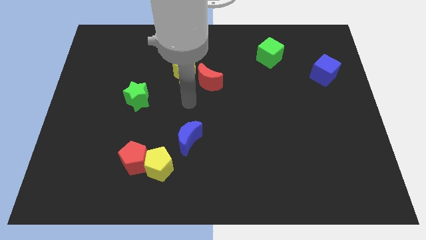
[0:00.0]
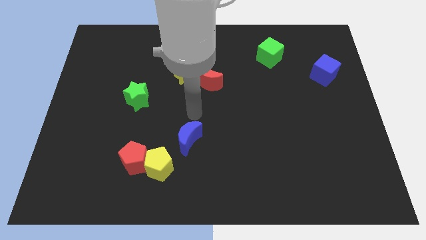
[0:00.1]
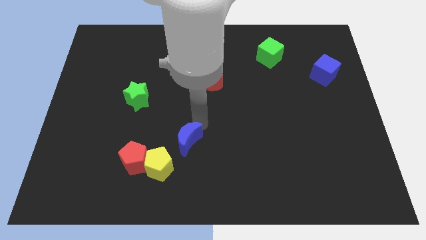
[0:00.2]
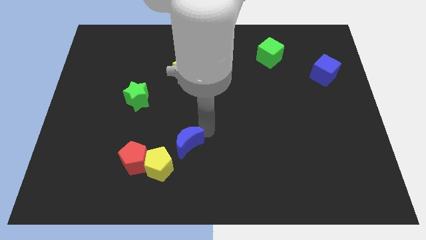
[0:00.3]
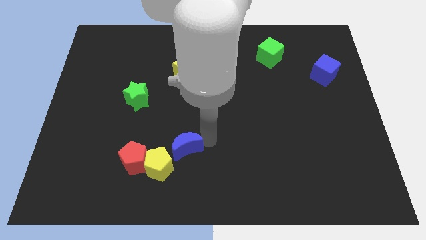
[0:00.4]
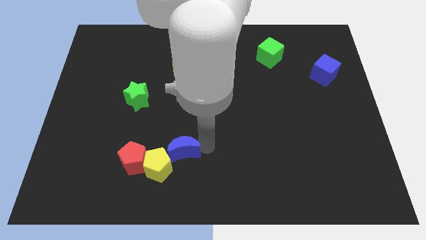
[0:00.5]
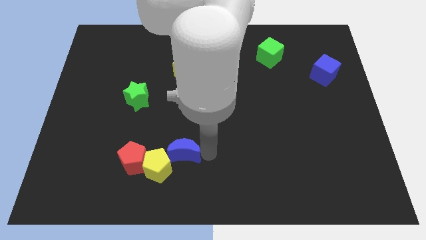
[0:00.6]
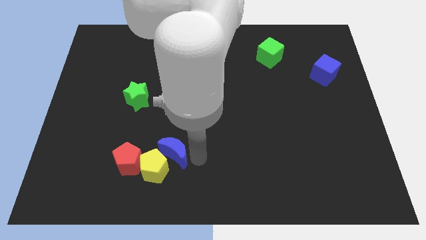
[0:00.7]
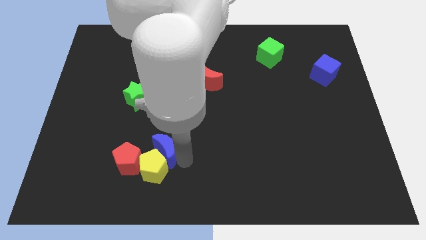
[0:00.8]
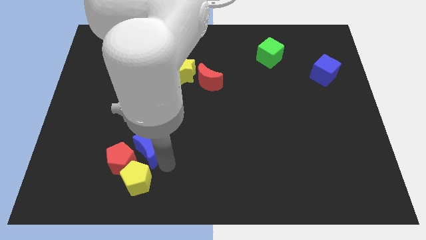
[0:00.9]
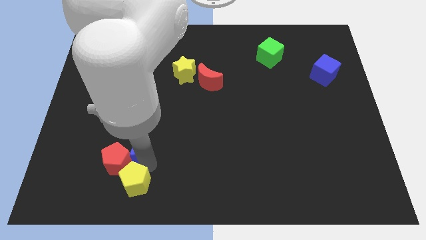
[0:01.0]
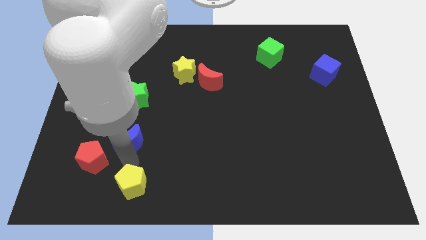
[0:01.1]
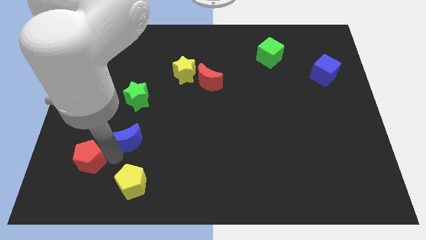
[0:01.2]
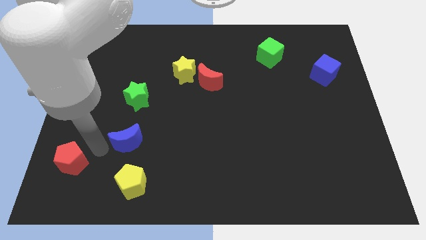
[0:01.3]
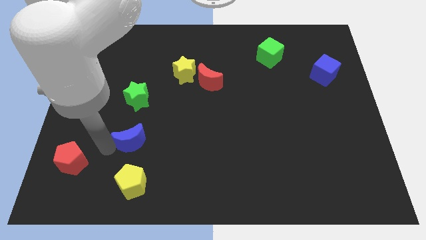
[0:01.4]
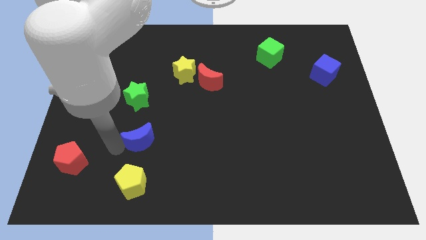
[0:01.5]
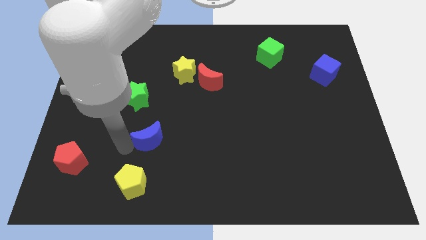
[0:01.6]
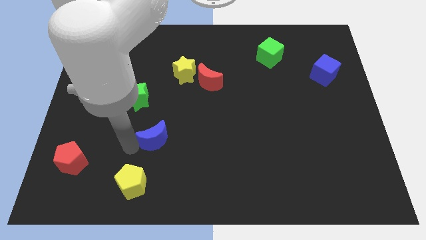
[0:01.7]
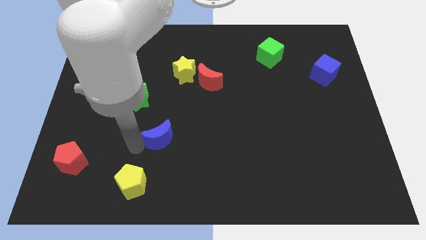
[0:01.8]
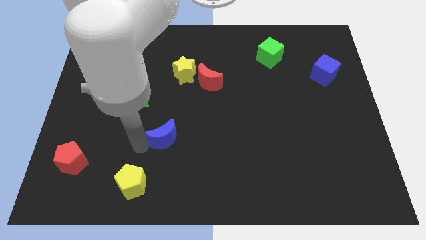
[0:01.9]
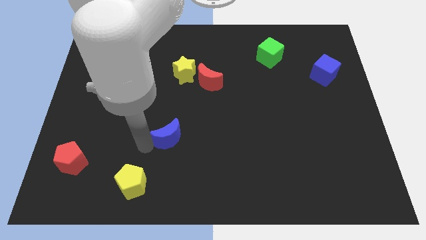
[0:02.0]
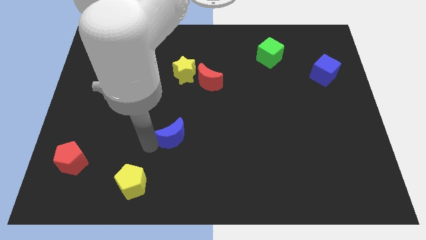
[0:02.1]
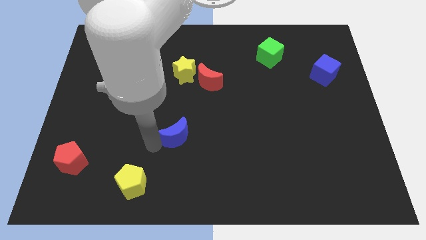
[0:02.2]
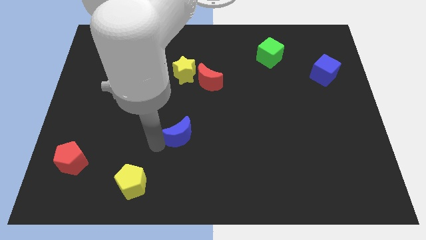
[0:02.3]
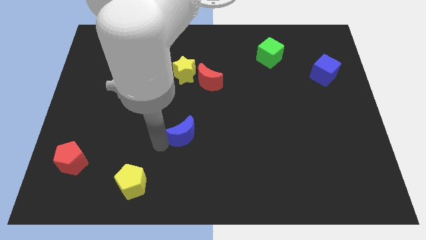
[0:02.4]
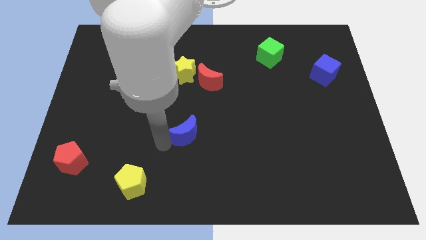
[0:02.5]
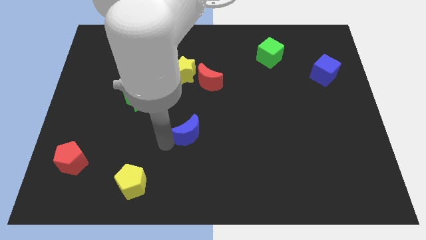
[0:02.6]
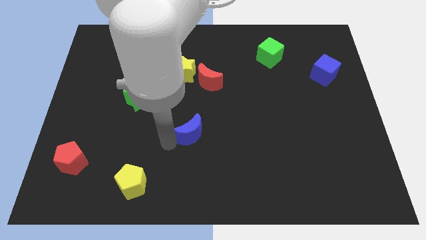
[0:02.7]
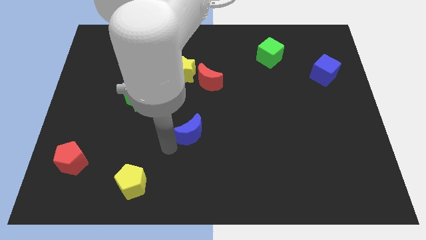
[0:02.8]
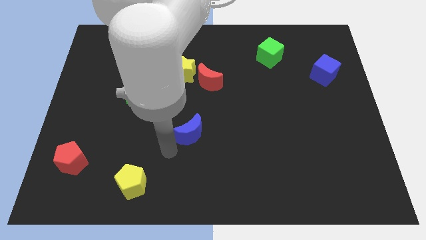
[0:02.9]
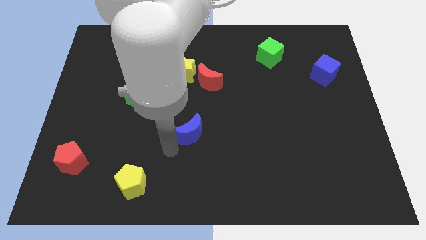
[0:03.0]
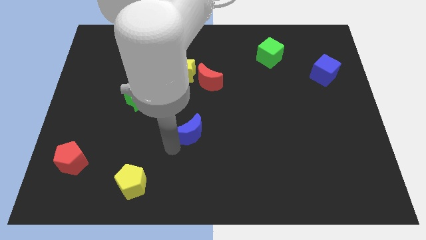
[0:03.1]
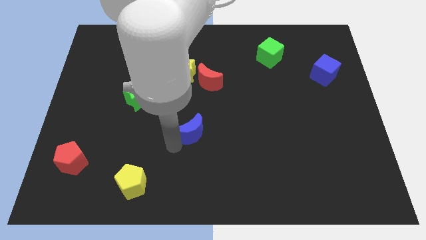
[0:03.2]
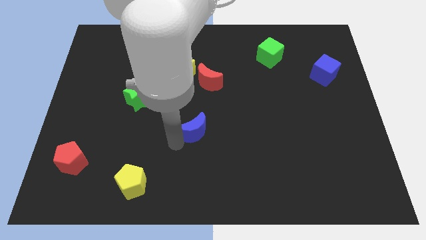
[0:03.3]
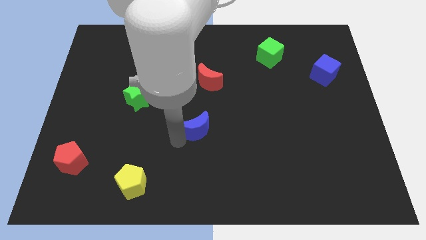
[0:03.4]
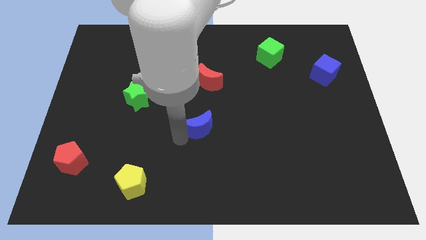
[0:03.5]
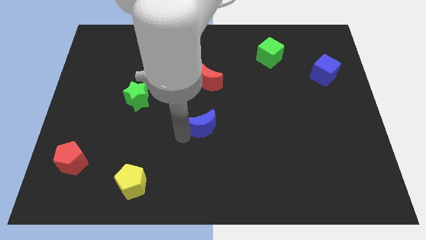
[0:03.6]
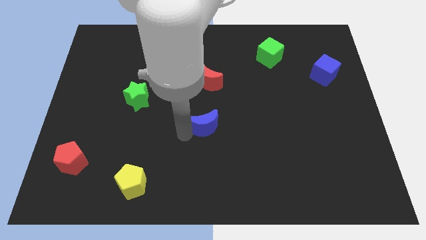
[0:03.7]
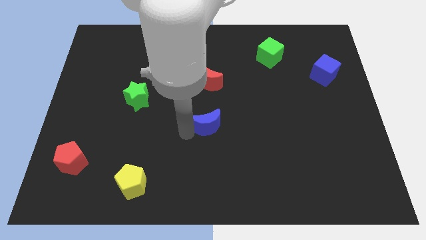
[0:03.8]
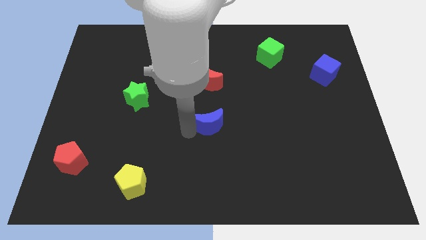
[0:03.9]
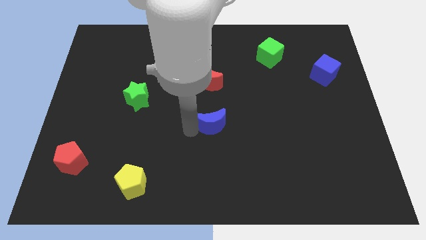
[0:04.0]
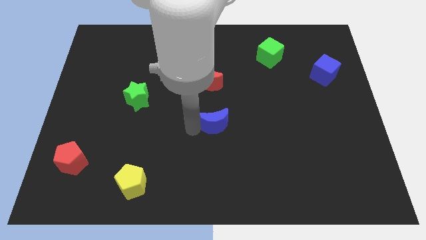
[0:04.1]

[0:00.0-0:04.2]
slightly move the blue moon up and then to the right

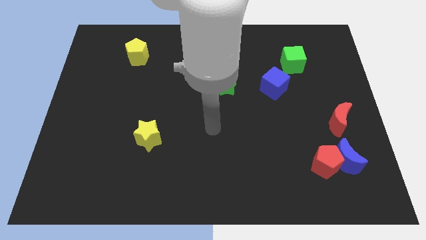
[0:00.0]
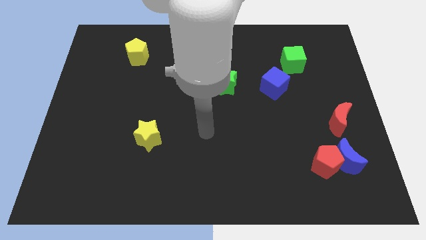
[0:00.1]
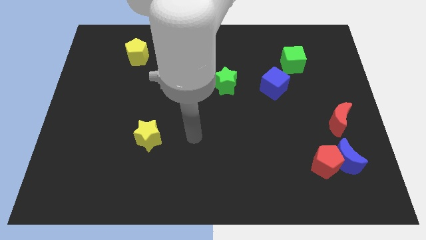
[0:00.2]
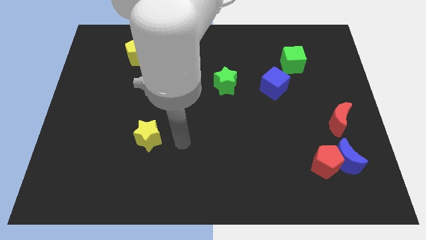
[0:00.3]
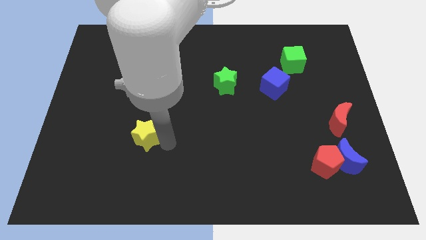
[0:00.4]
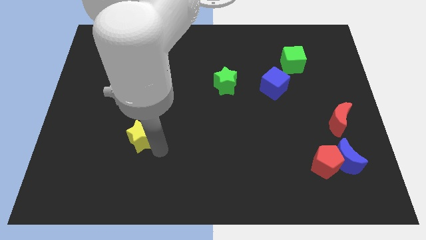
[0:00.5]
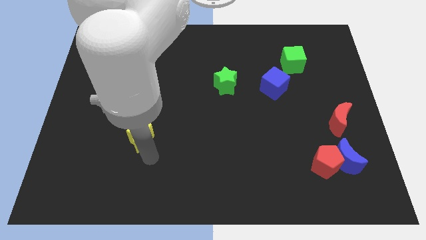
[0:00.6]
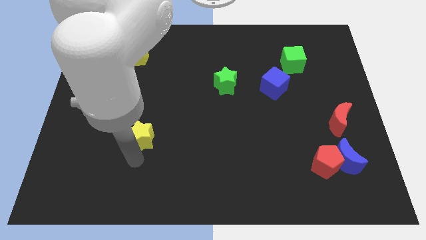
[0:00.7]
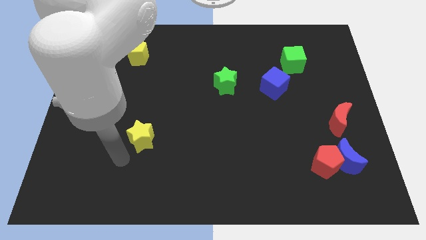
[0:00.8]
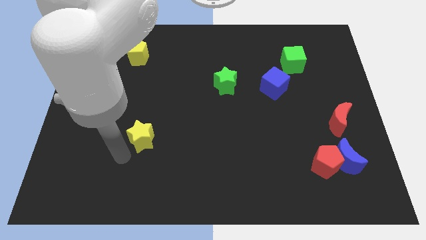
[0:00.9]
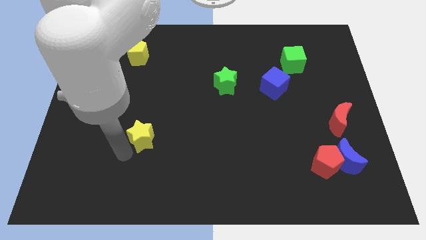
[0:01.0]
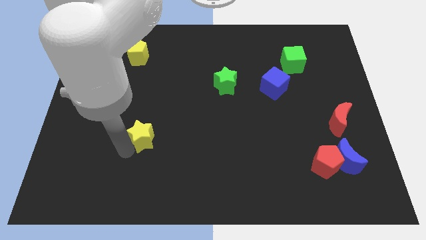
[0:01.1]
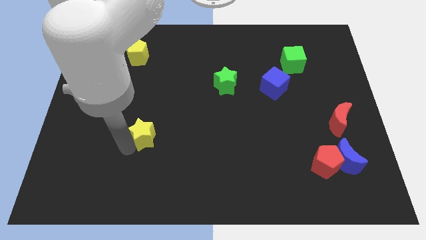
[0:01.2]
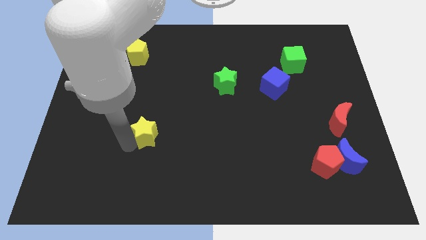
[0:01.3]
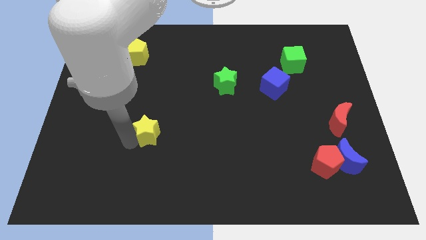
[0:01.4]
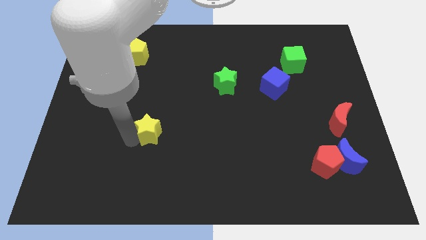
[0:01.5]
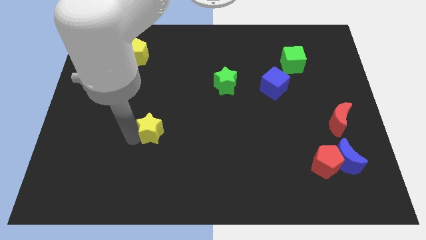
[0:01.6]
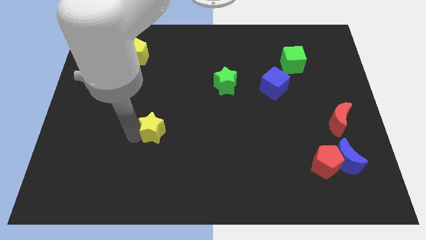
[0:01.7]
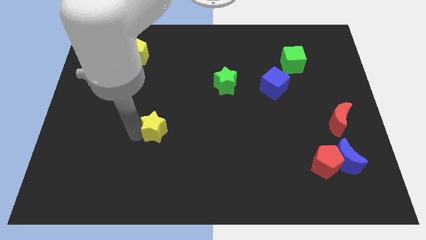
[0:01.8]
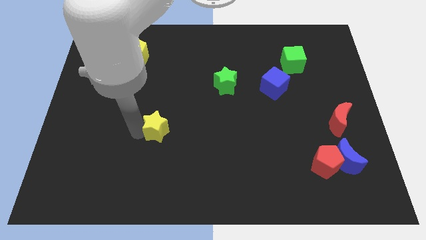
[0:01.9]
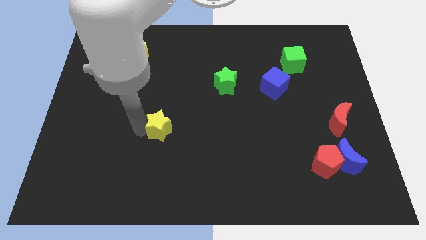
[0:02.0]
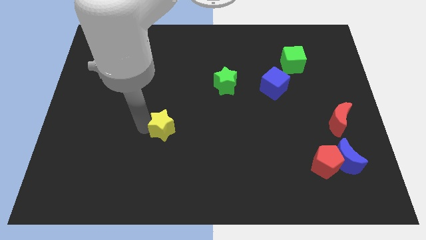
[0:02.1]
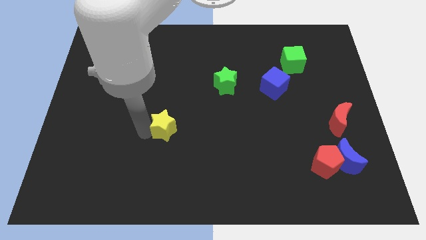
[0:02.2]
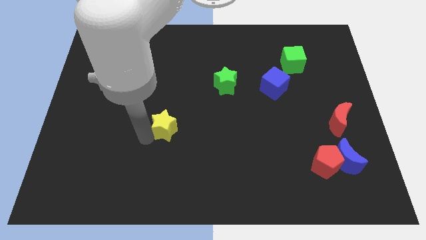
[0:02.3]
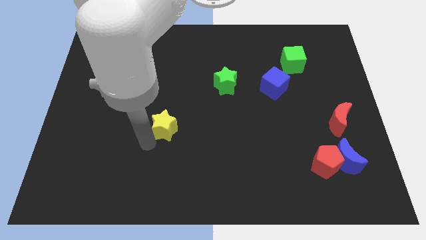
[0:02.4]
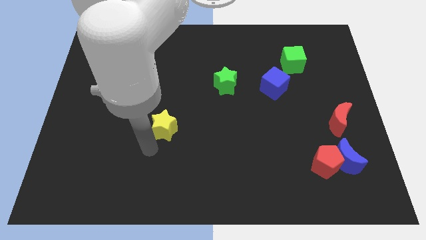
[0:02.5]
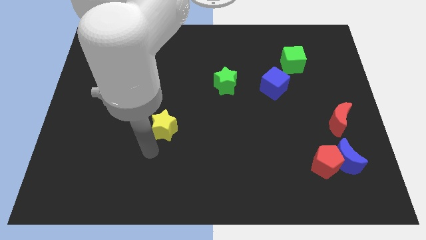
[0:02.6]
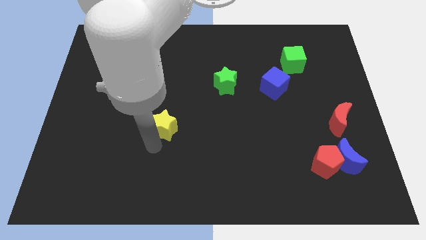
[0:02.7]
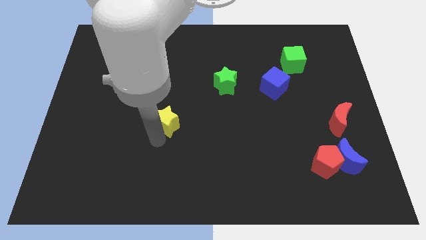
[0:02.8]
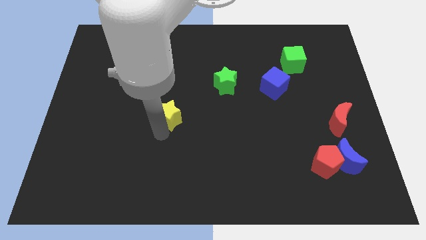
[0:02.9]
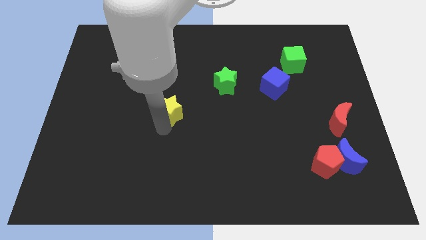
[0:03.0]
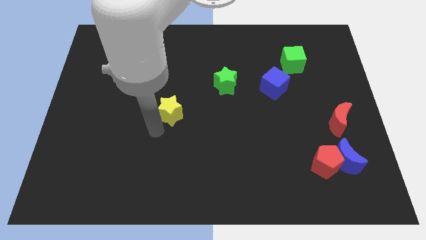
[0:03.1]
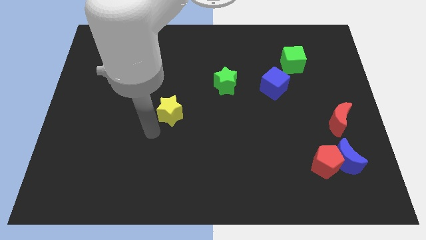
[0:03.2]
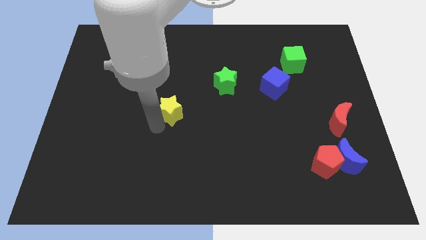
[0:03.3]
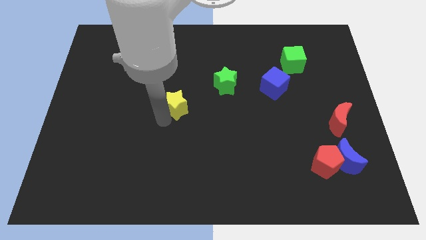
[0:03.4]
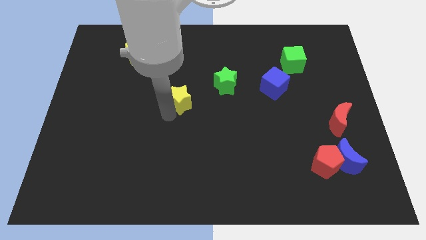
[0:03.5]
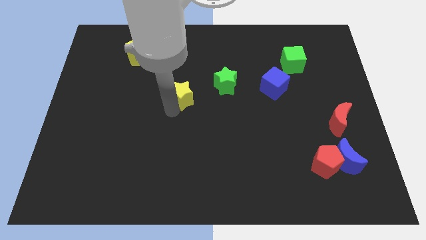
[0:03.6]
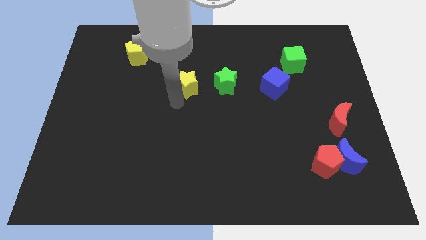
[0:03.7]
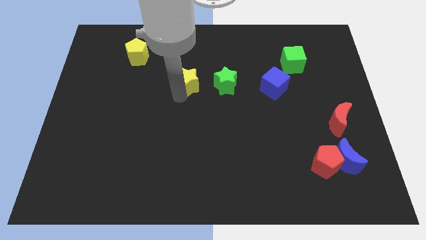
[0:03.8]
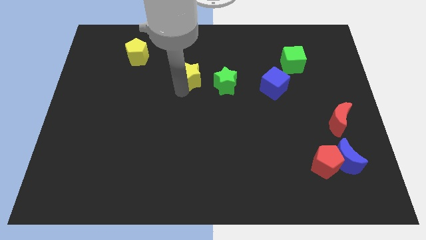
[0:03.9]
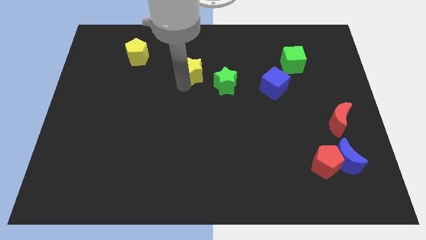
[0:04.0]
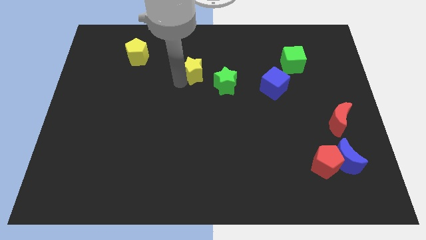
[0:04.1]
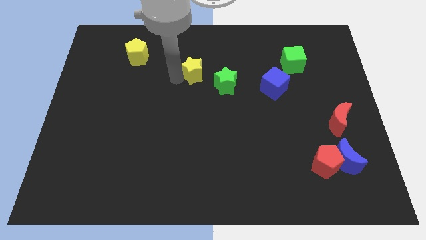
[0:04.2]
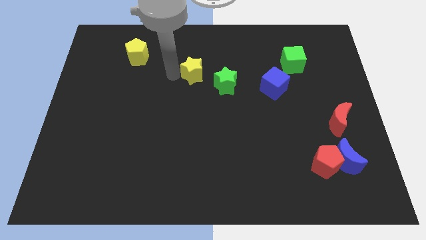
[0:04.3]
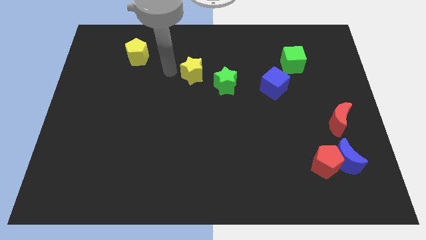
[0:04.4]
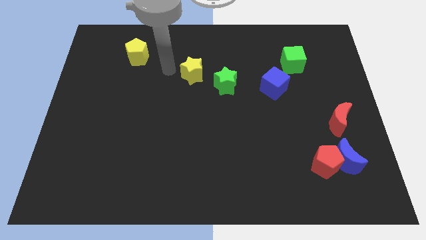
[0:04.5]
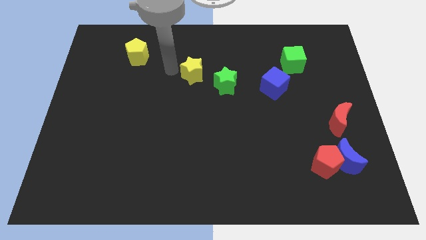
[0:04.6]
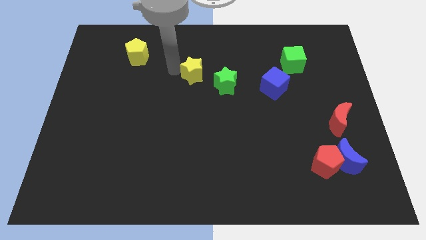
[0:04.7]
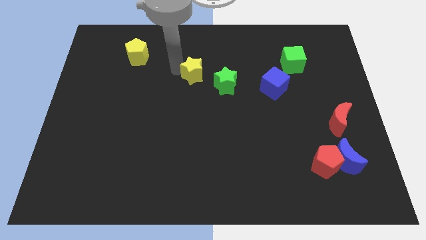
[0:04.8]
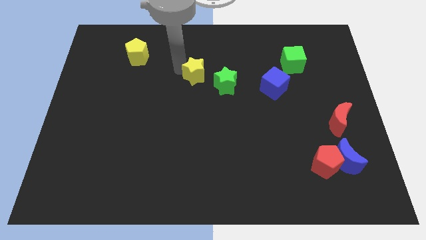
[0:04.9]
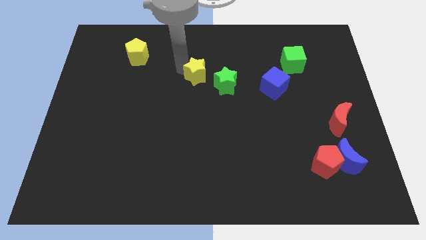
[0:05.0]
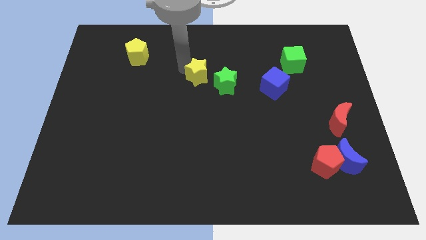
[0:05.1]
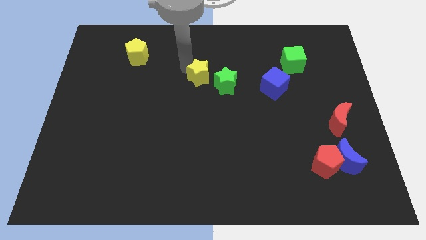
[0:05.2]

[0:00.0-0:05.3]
move the yellow star up and then to the right
